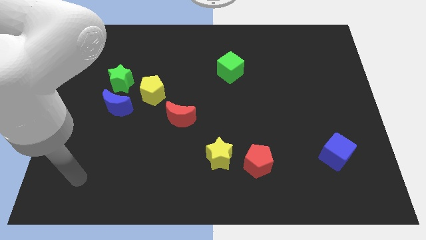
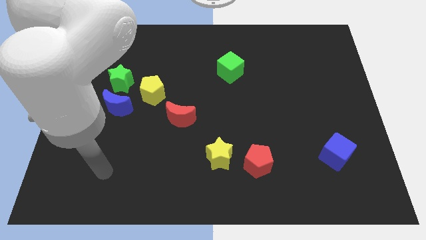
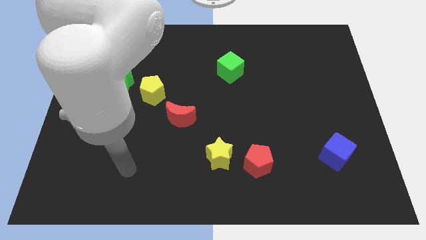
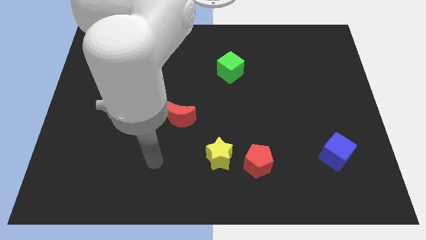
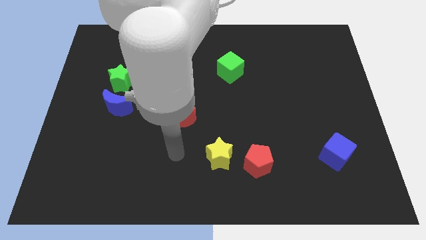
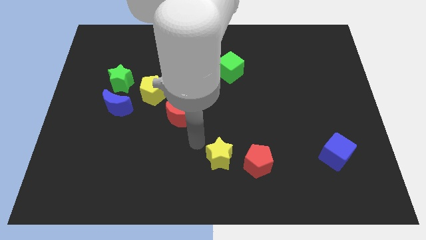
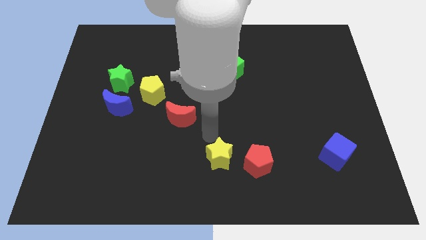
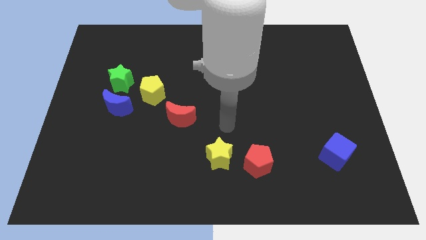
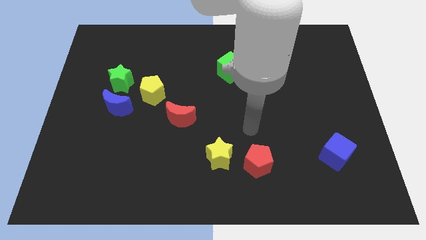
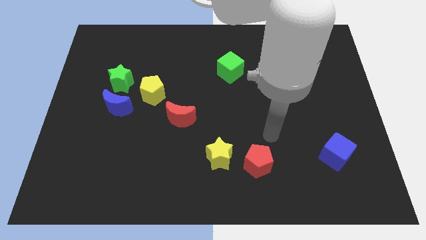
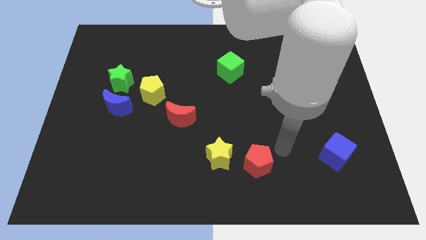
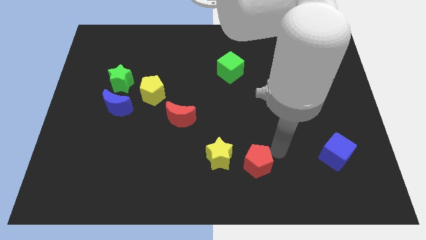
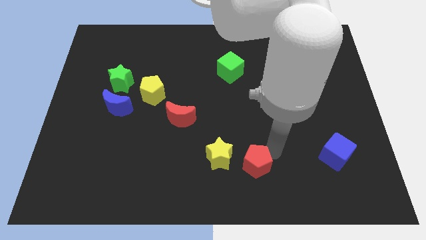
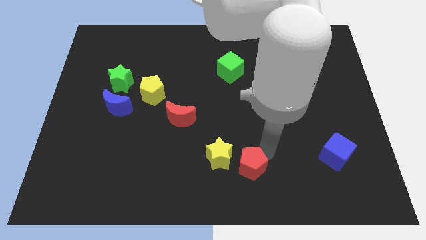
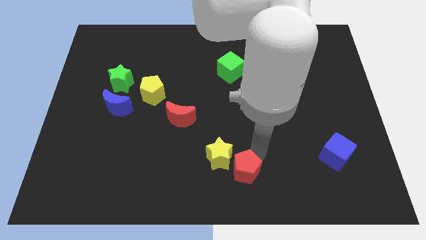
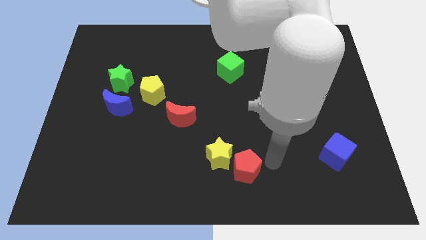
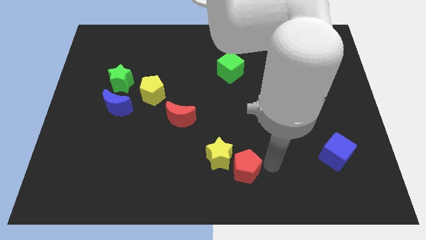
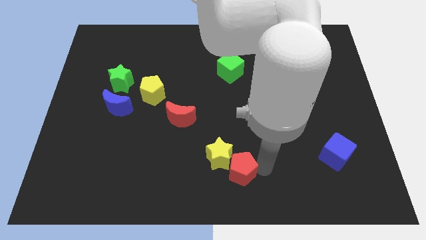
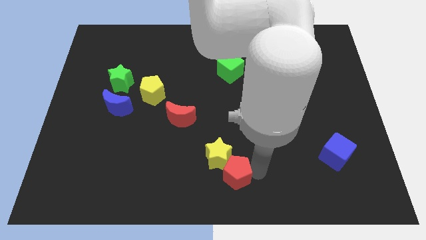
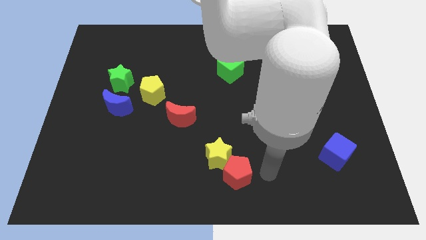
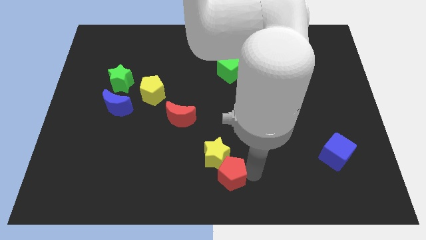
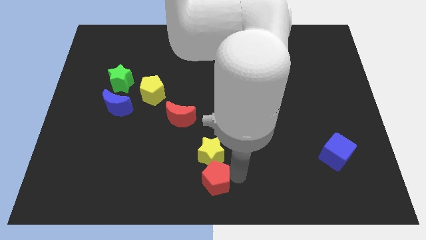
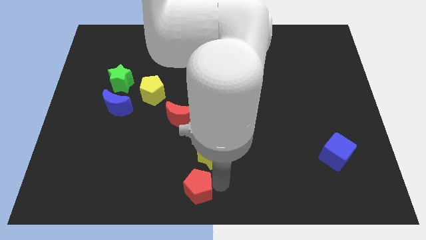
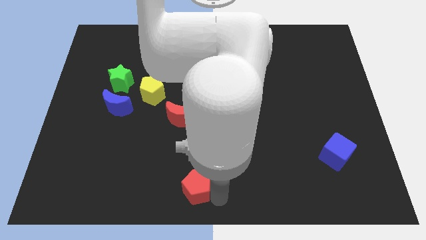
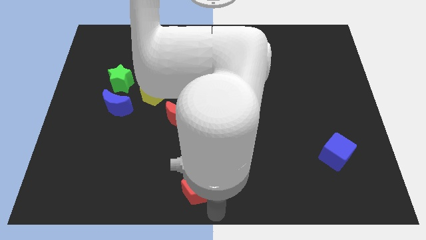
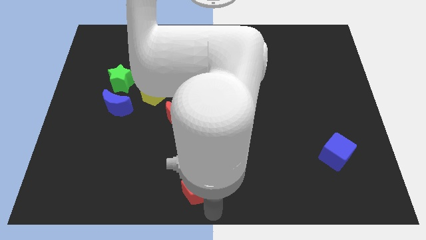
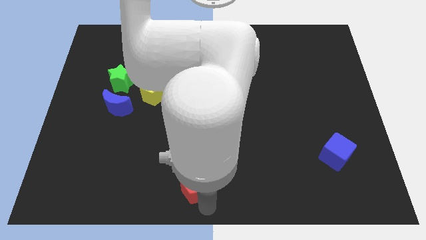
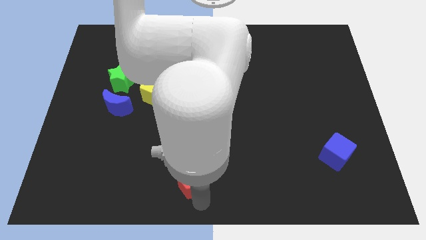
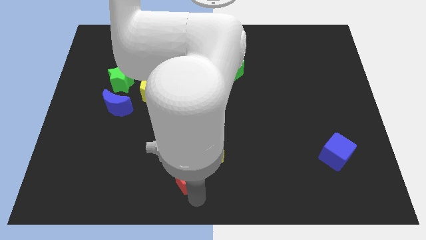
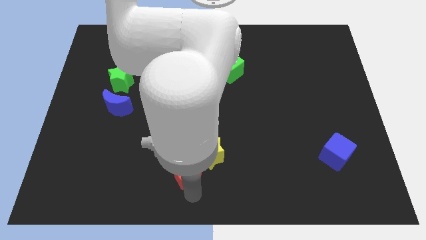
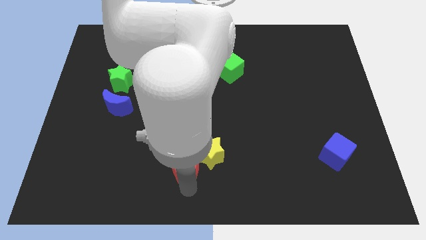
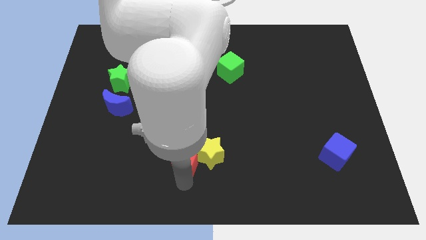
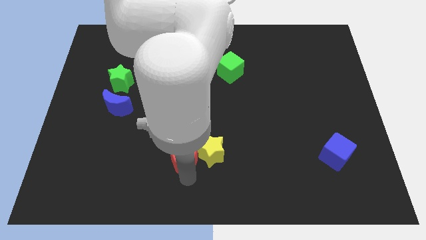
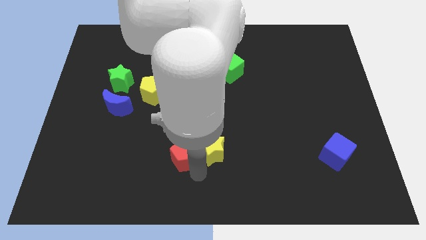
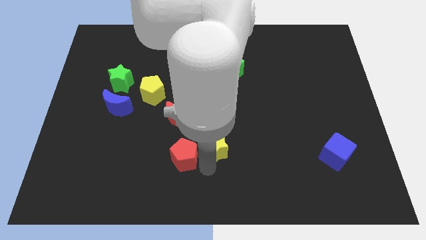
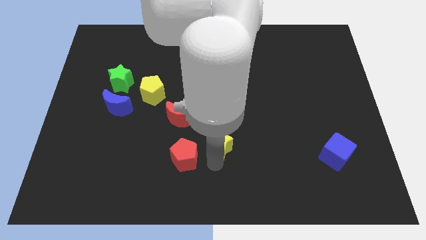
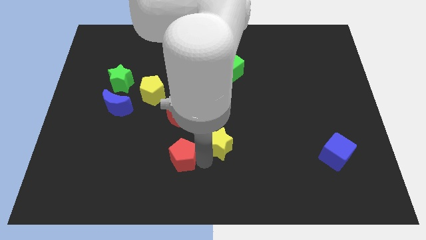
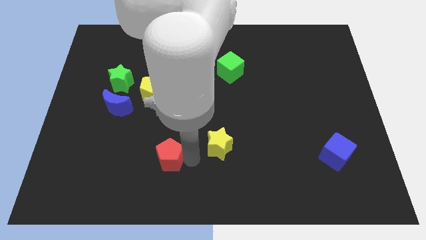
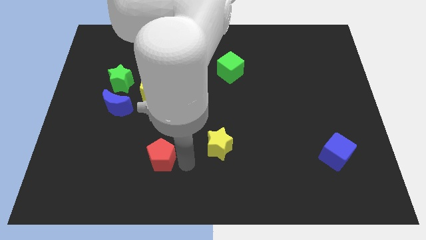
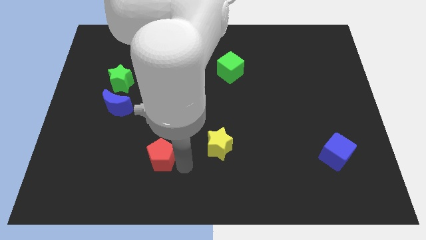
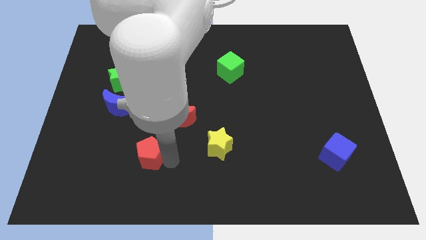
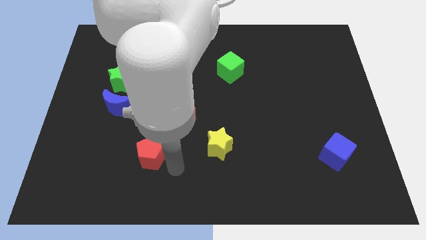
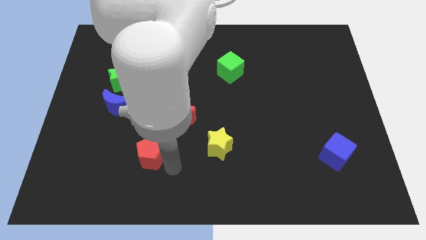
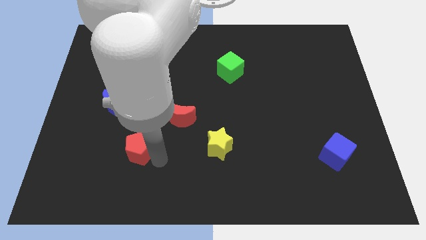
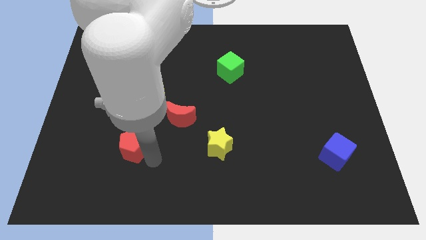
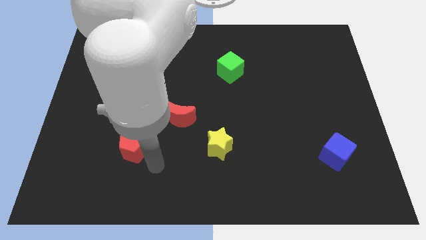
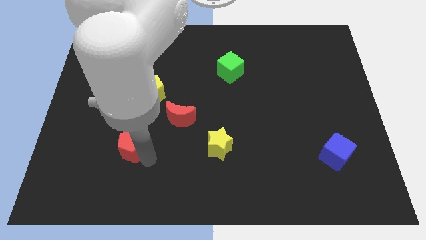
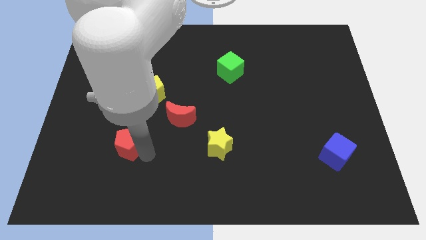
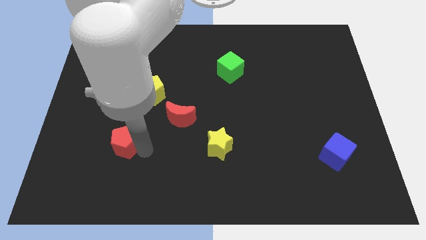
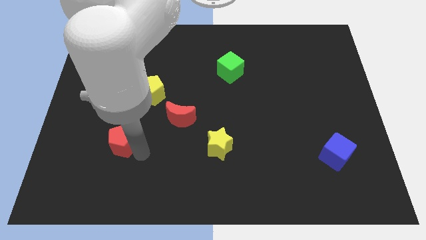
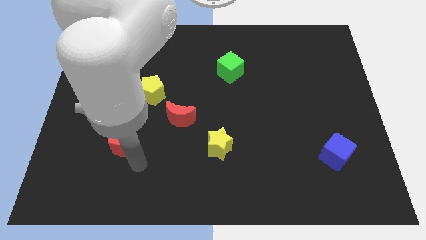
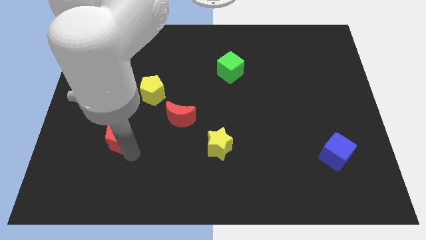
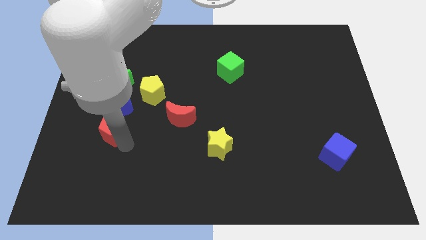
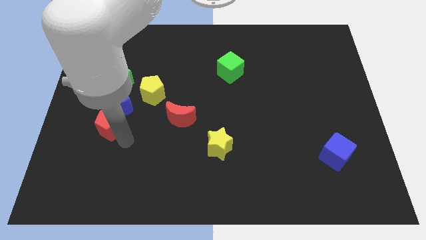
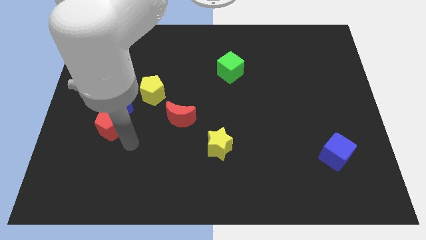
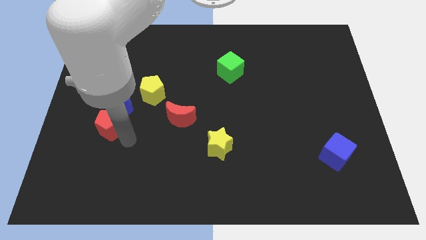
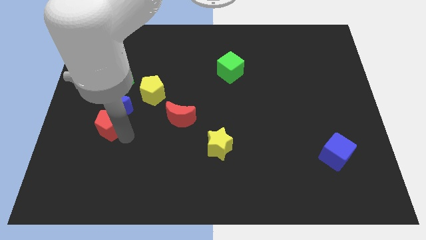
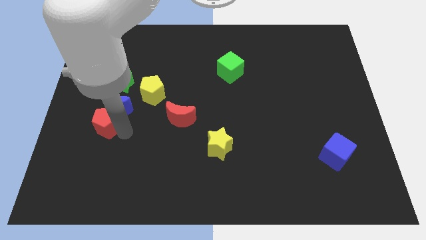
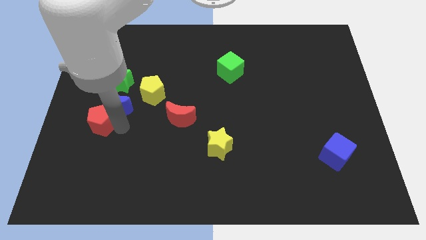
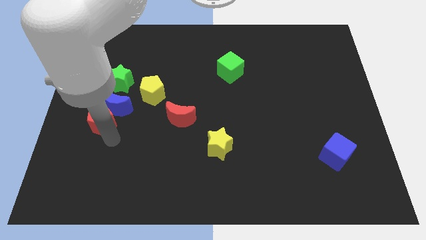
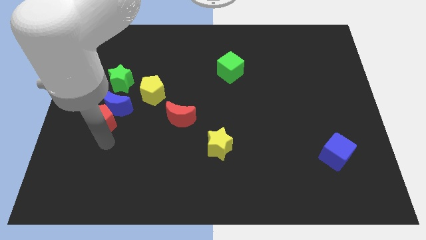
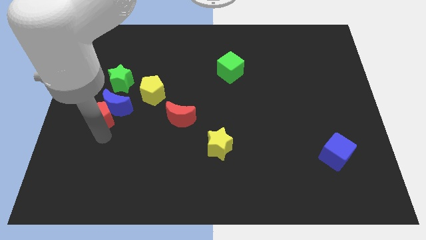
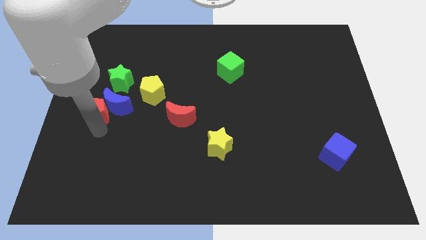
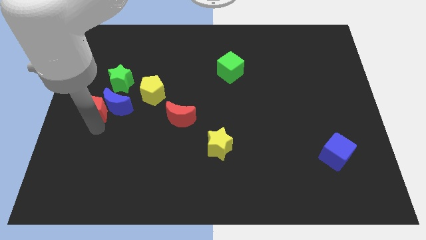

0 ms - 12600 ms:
push the red pentagon diagonally up and to the left of the blue moon
